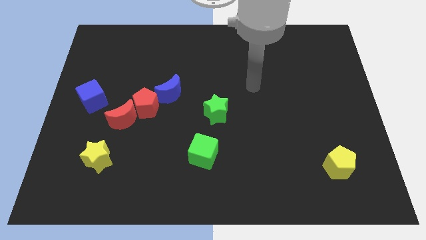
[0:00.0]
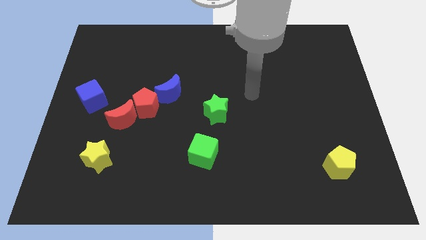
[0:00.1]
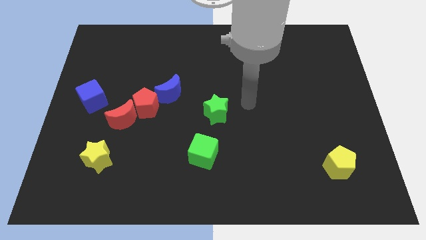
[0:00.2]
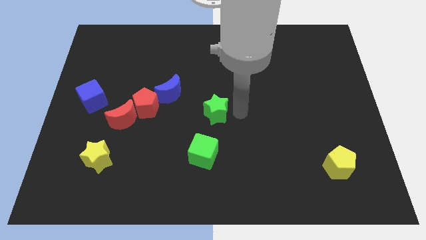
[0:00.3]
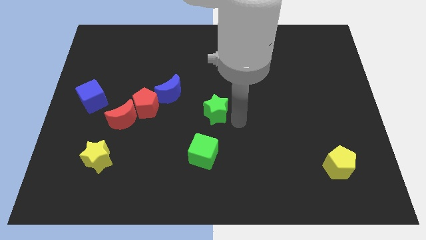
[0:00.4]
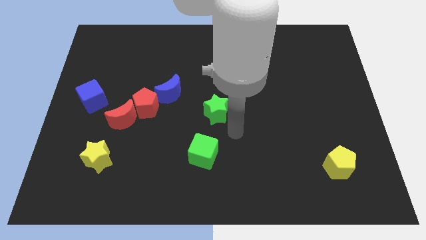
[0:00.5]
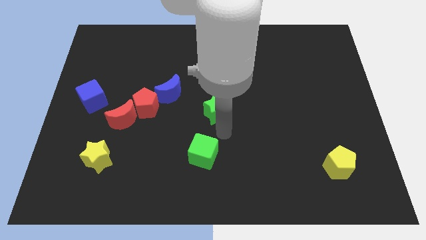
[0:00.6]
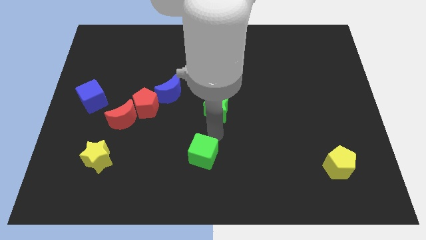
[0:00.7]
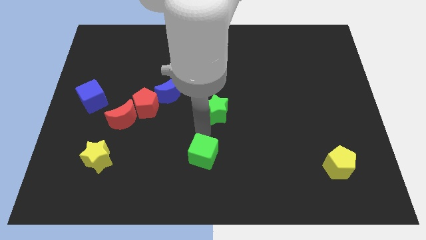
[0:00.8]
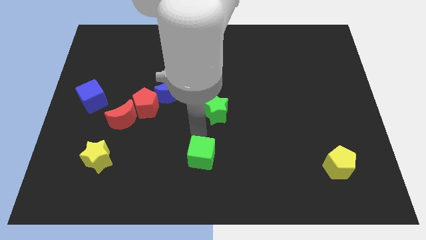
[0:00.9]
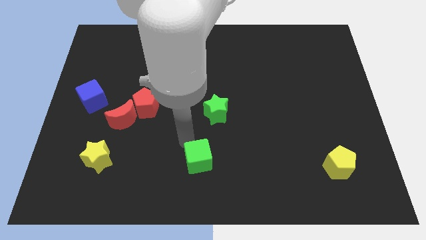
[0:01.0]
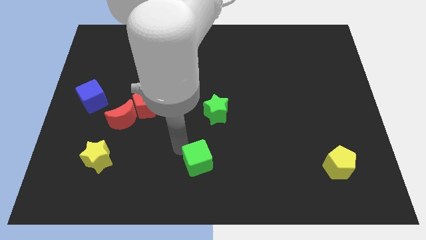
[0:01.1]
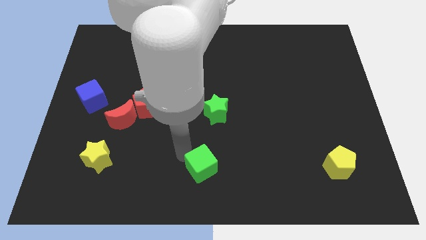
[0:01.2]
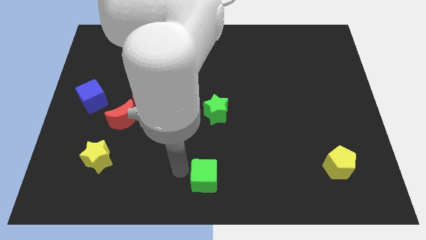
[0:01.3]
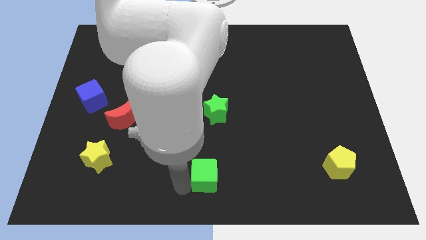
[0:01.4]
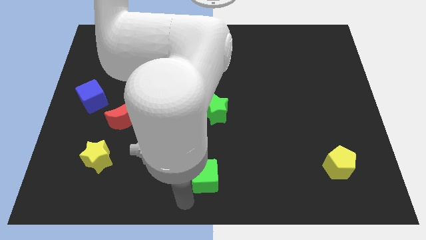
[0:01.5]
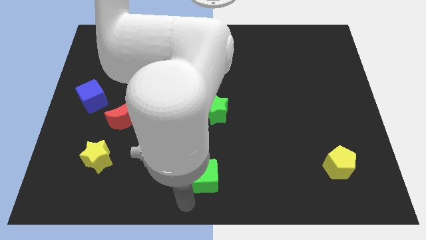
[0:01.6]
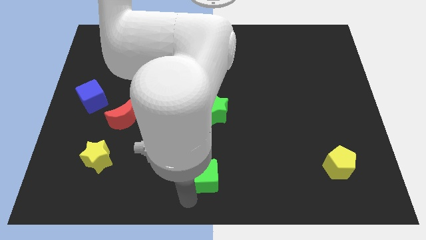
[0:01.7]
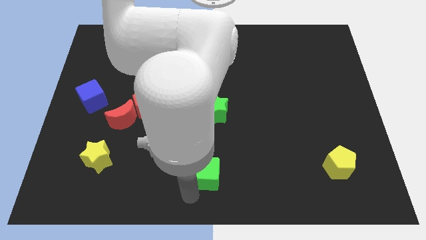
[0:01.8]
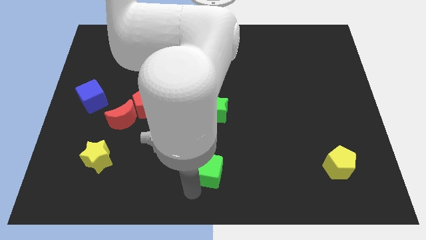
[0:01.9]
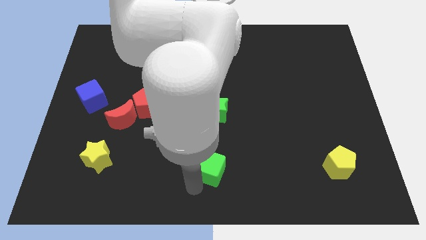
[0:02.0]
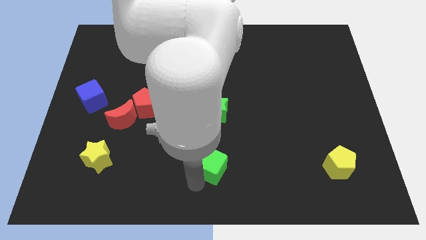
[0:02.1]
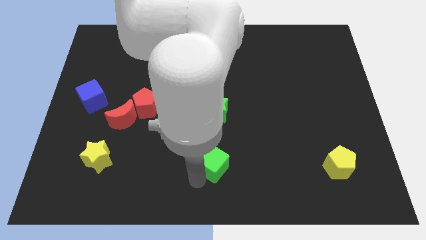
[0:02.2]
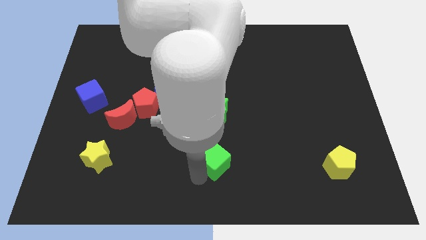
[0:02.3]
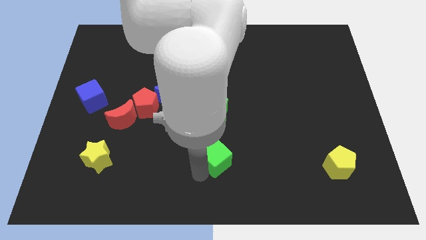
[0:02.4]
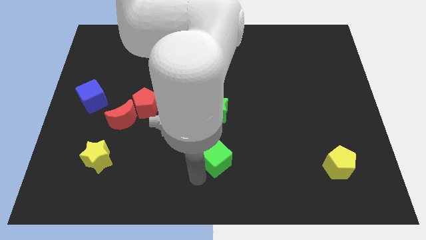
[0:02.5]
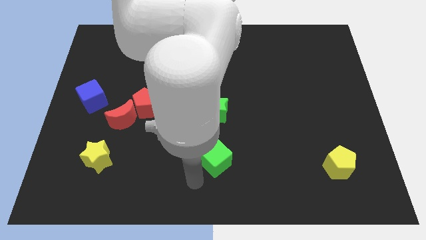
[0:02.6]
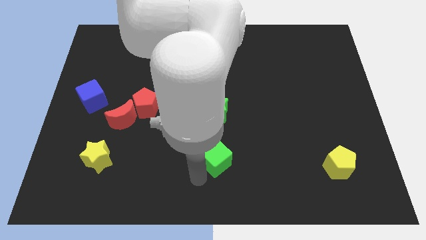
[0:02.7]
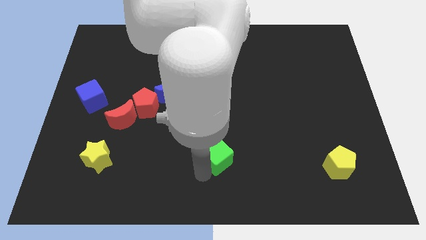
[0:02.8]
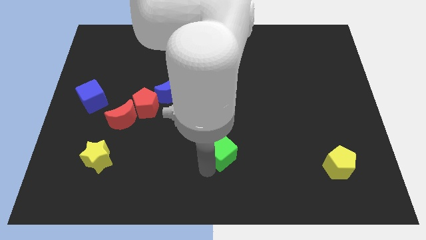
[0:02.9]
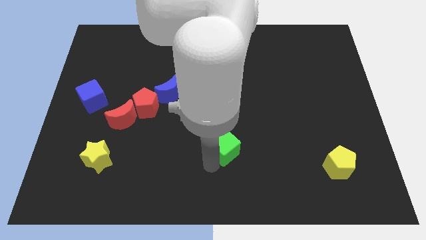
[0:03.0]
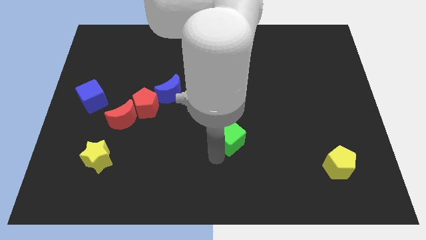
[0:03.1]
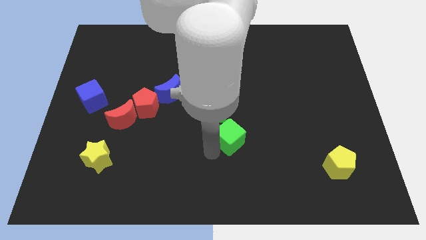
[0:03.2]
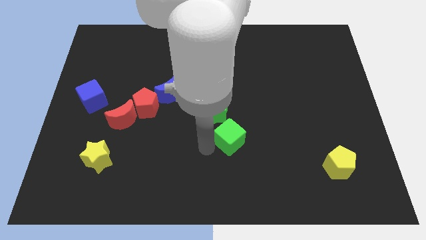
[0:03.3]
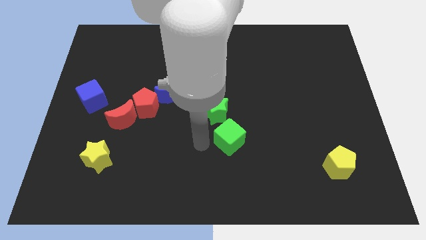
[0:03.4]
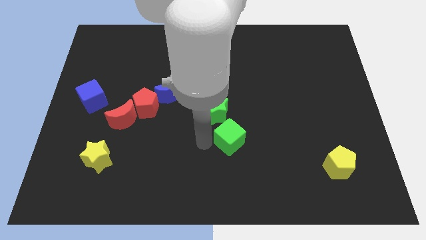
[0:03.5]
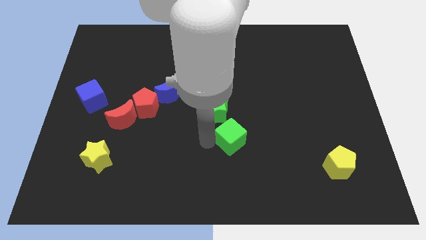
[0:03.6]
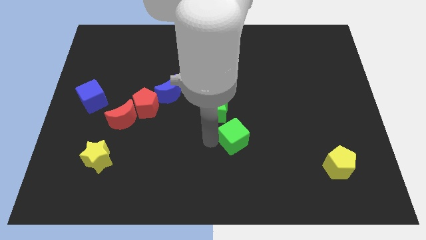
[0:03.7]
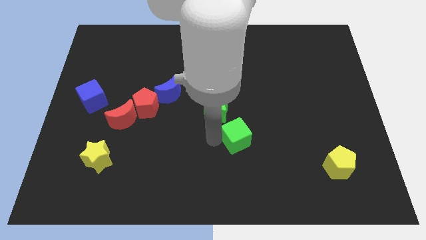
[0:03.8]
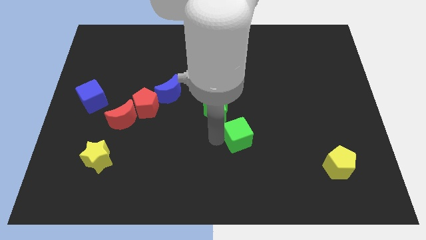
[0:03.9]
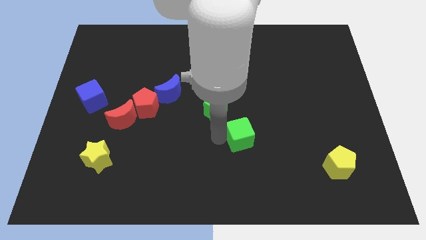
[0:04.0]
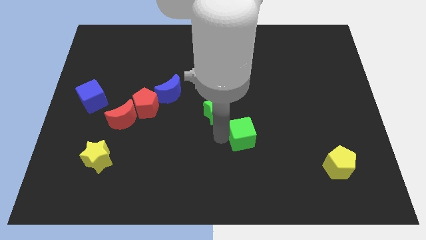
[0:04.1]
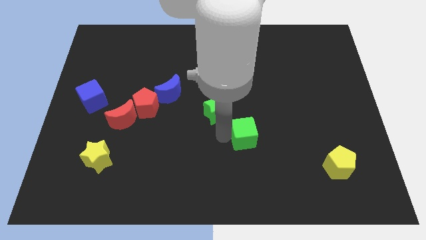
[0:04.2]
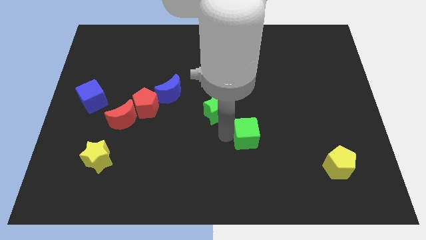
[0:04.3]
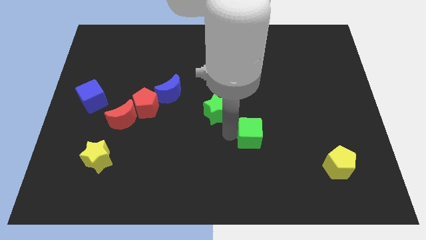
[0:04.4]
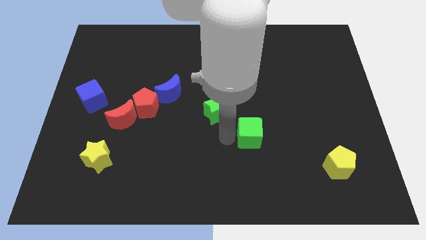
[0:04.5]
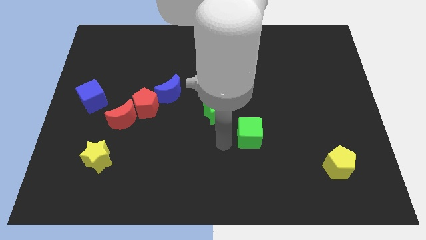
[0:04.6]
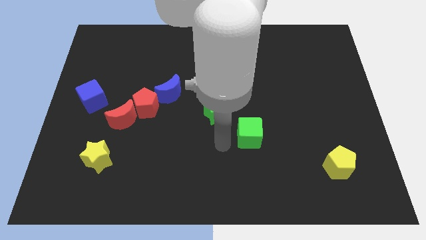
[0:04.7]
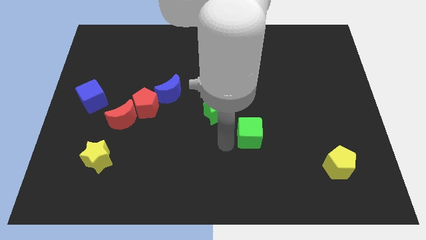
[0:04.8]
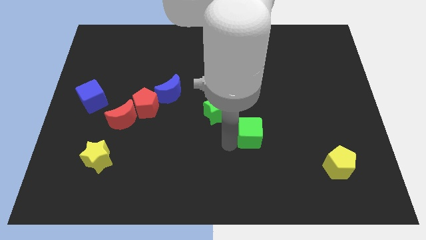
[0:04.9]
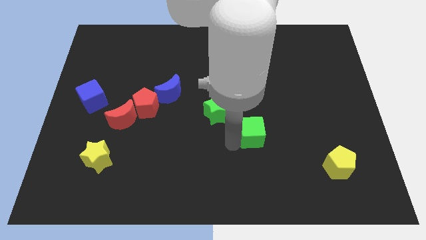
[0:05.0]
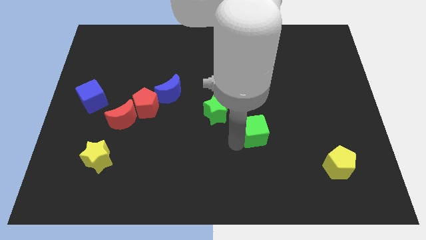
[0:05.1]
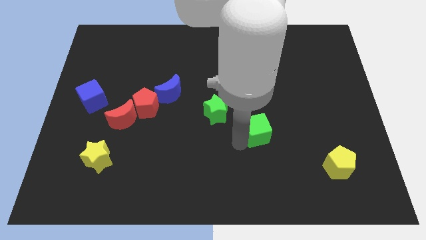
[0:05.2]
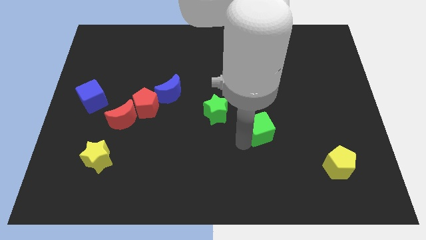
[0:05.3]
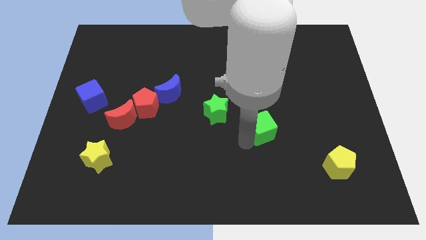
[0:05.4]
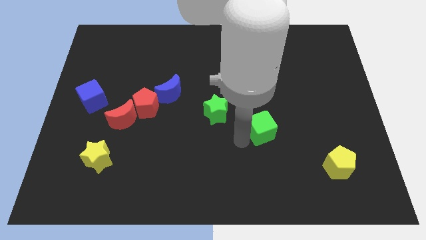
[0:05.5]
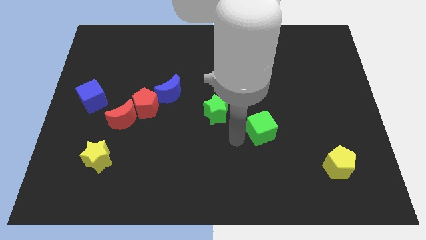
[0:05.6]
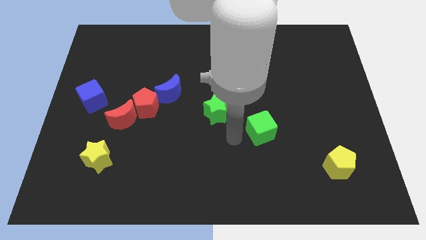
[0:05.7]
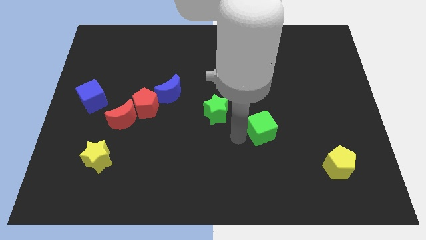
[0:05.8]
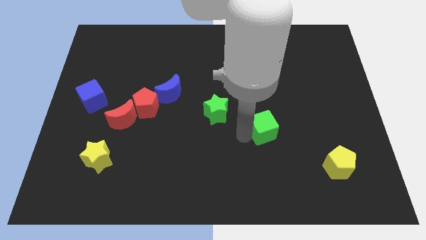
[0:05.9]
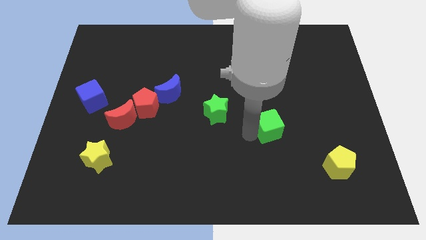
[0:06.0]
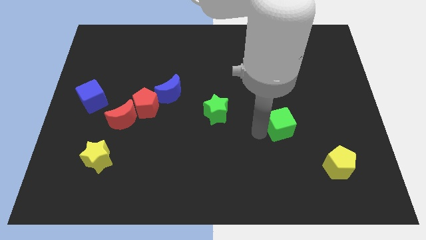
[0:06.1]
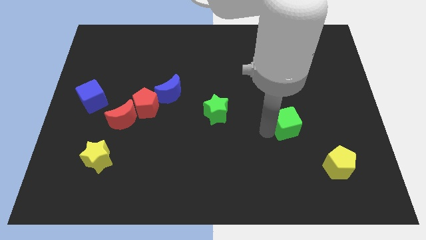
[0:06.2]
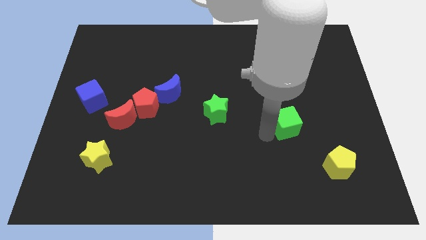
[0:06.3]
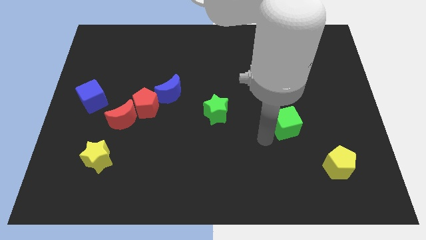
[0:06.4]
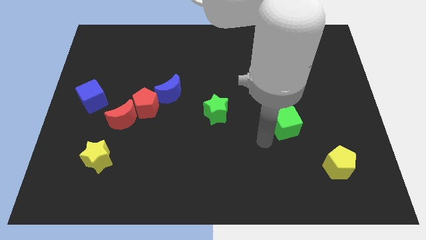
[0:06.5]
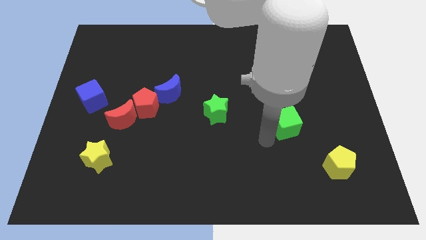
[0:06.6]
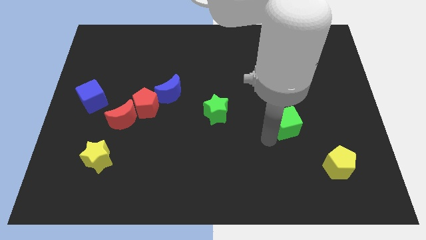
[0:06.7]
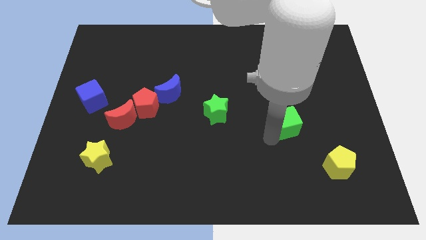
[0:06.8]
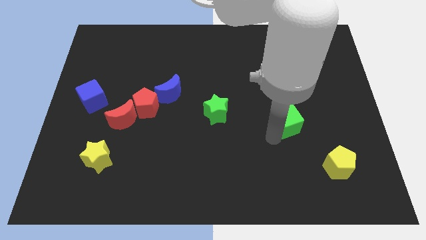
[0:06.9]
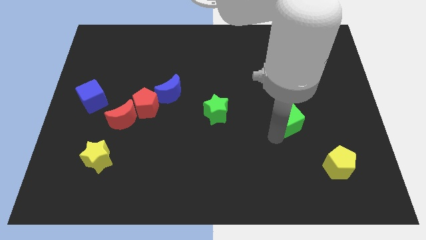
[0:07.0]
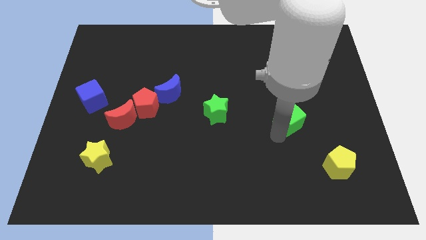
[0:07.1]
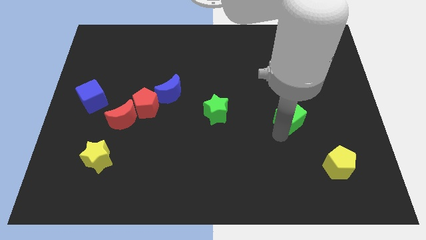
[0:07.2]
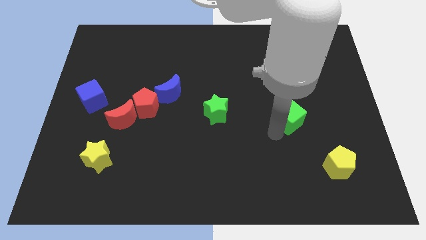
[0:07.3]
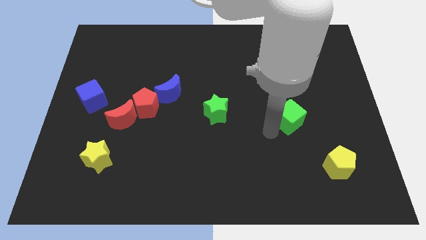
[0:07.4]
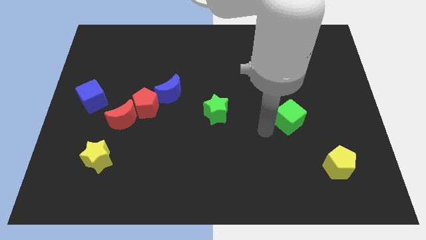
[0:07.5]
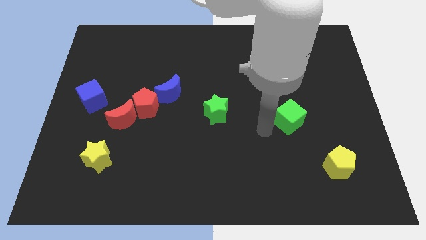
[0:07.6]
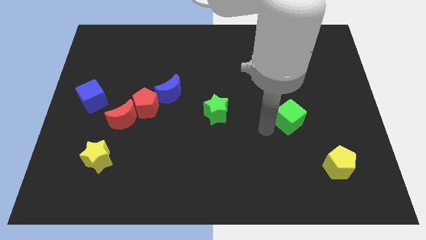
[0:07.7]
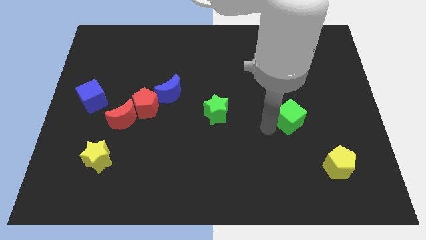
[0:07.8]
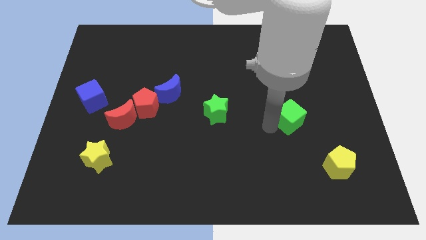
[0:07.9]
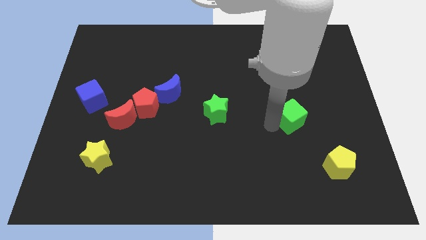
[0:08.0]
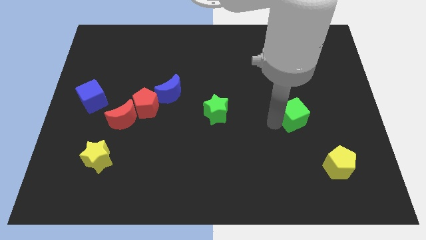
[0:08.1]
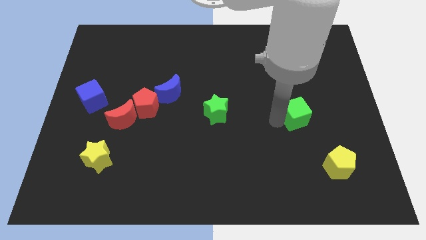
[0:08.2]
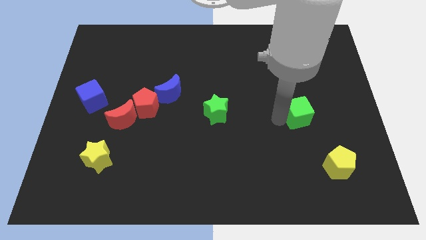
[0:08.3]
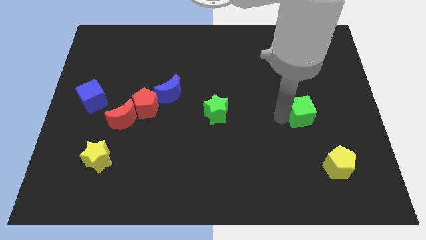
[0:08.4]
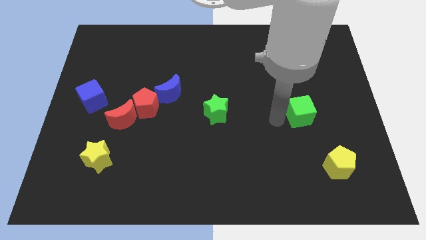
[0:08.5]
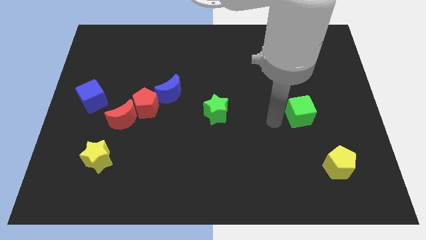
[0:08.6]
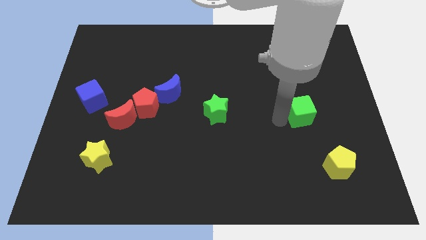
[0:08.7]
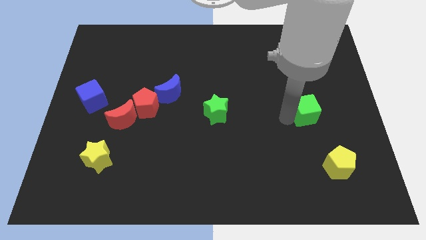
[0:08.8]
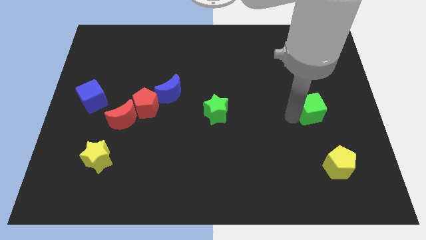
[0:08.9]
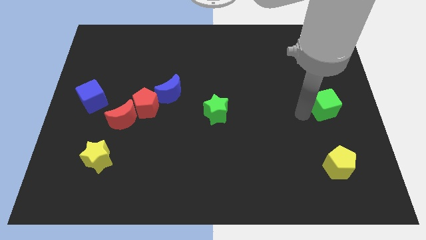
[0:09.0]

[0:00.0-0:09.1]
slide the green cube to the right side
